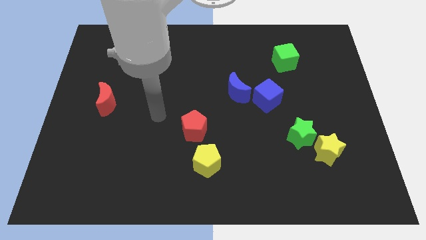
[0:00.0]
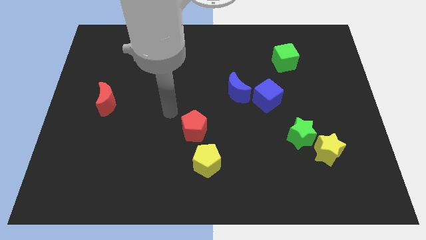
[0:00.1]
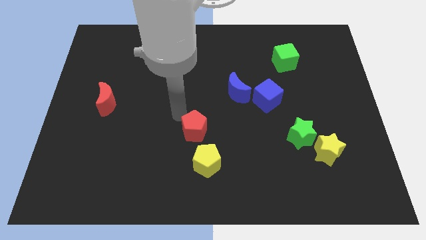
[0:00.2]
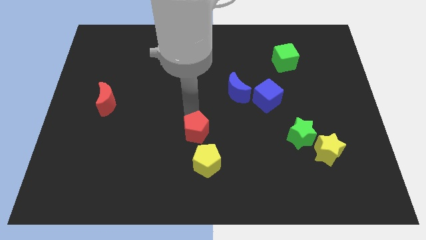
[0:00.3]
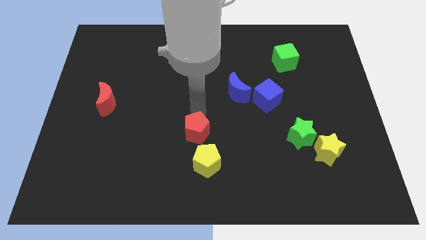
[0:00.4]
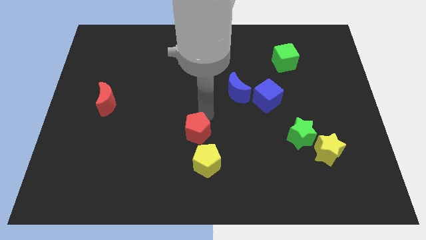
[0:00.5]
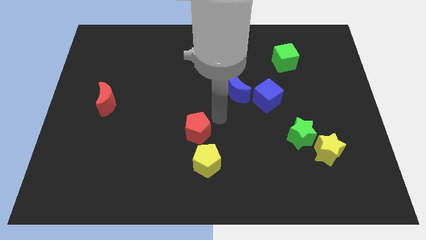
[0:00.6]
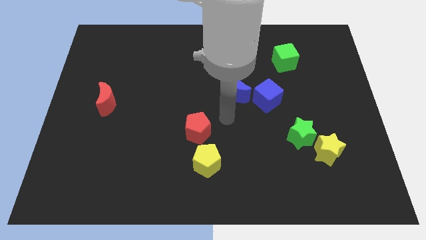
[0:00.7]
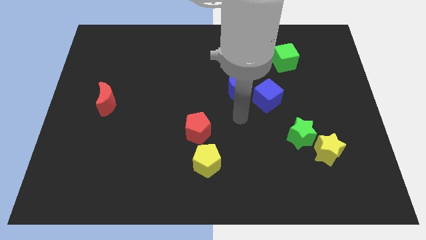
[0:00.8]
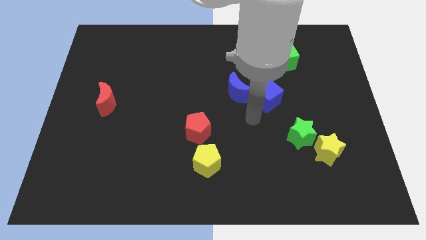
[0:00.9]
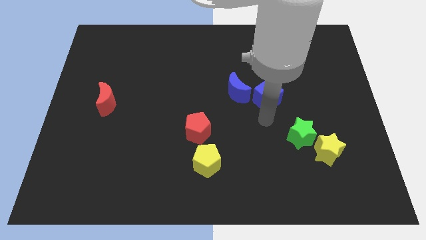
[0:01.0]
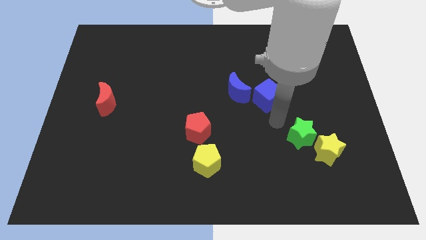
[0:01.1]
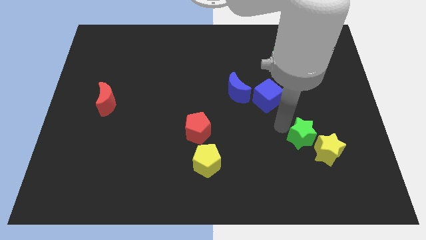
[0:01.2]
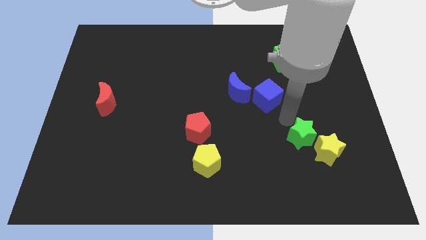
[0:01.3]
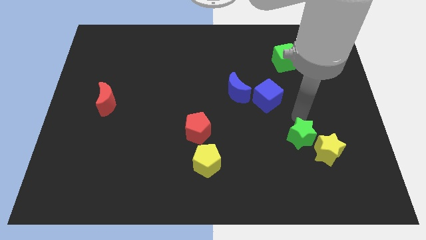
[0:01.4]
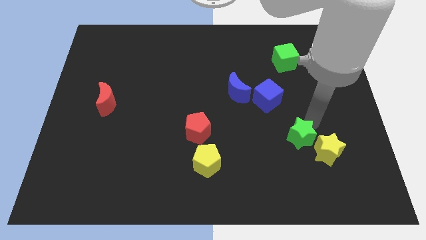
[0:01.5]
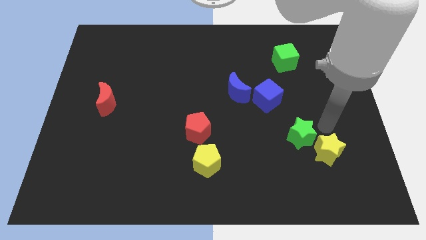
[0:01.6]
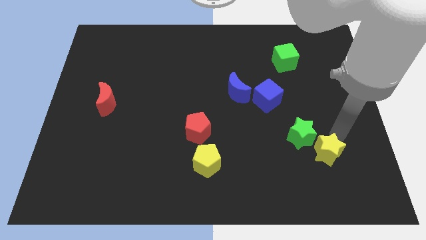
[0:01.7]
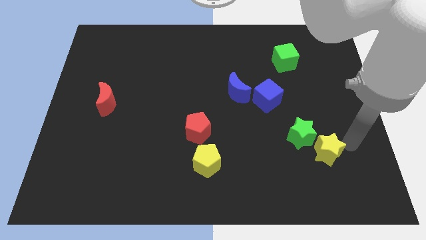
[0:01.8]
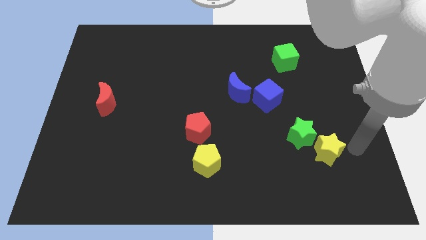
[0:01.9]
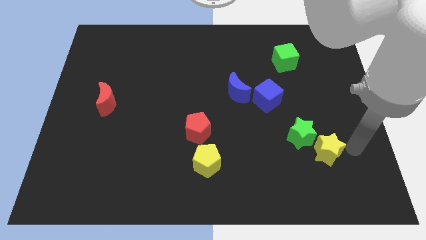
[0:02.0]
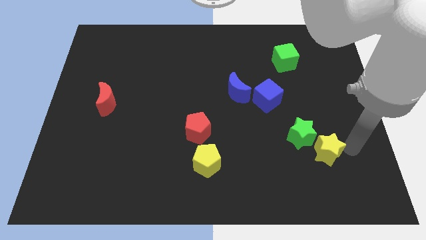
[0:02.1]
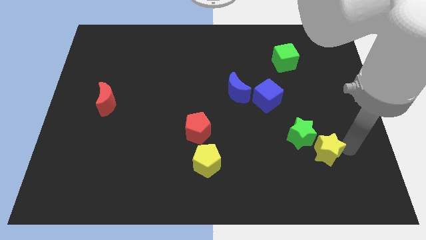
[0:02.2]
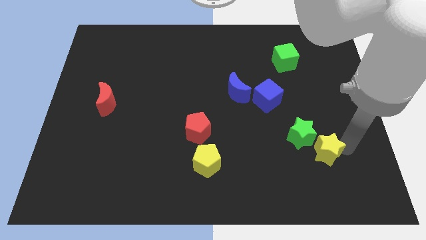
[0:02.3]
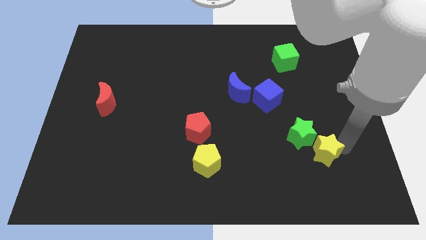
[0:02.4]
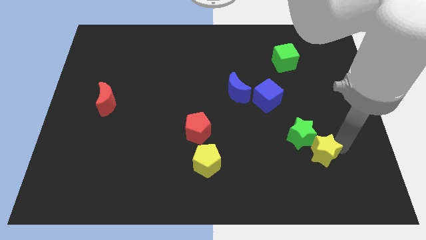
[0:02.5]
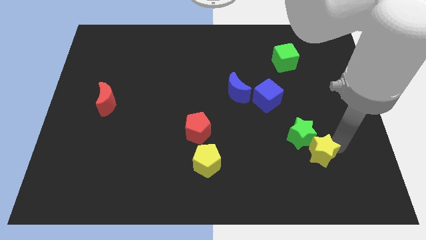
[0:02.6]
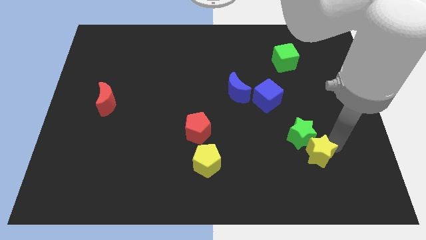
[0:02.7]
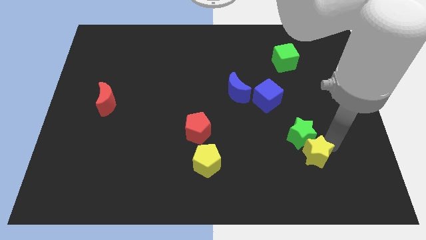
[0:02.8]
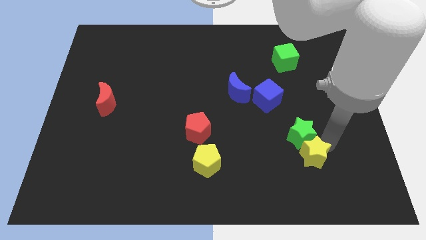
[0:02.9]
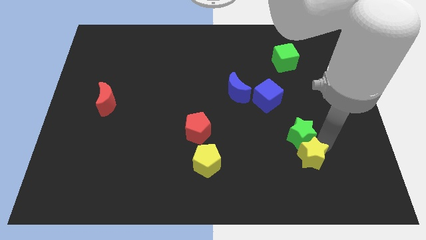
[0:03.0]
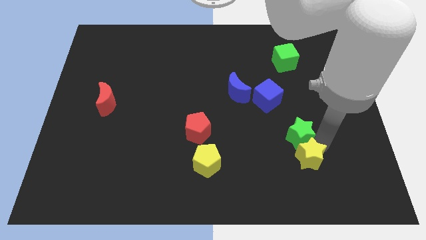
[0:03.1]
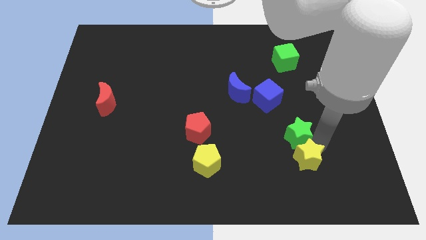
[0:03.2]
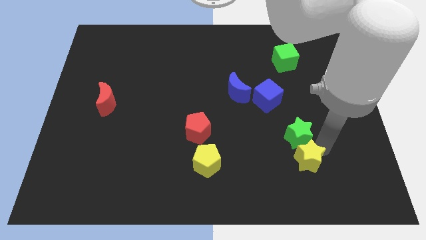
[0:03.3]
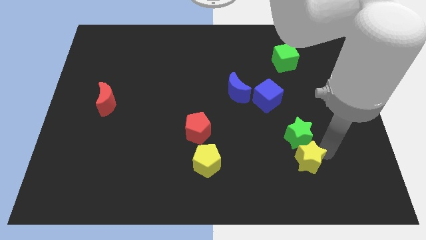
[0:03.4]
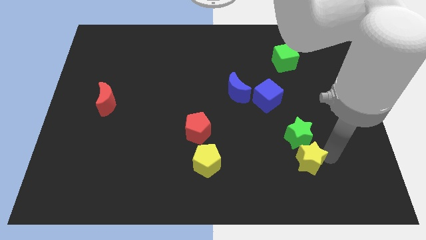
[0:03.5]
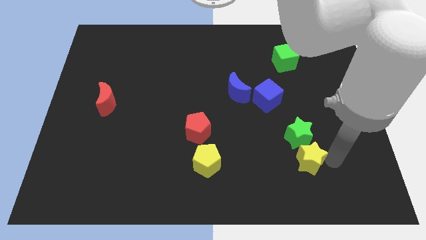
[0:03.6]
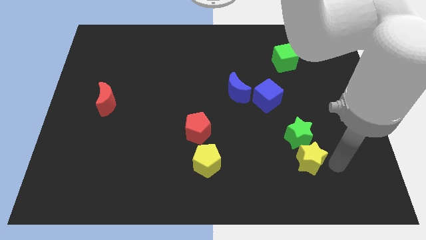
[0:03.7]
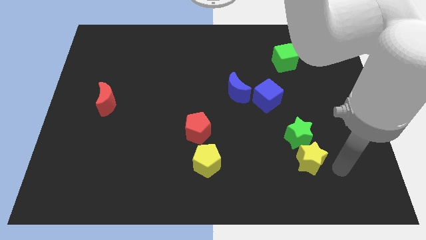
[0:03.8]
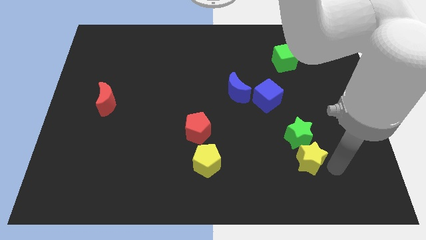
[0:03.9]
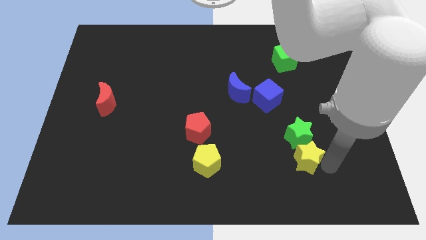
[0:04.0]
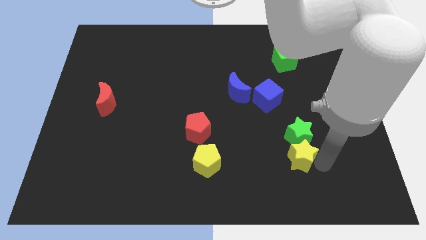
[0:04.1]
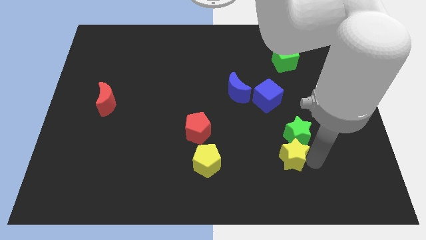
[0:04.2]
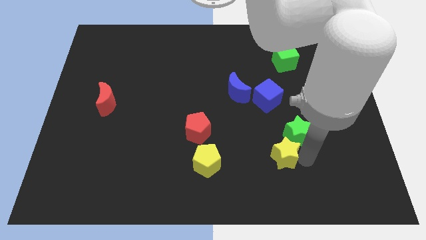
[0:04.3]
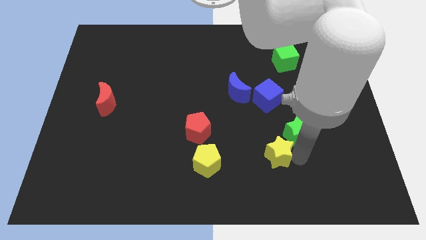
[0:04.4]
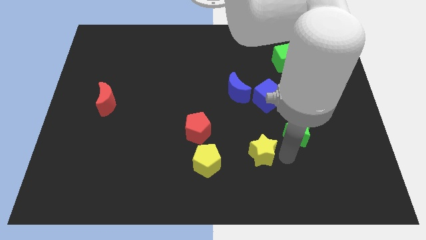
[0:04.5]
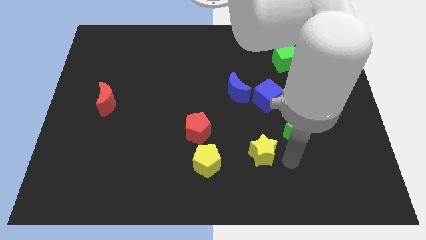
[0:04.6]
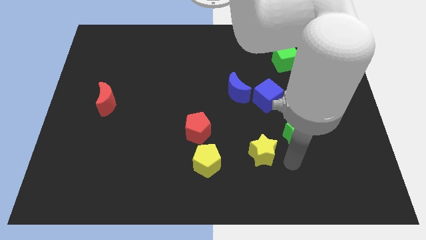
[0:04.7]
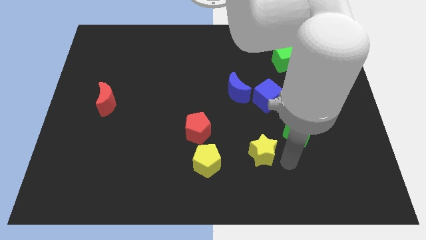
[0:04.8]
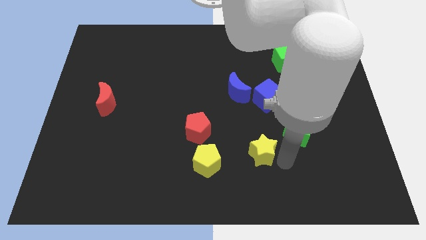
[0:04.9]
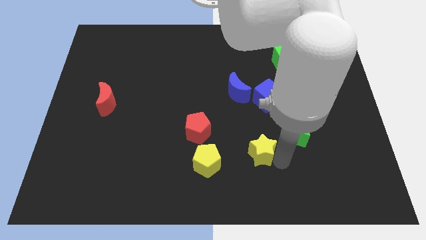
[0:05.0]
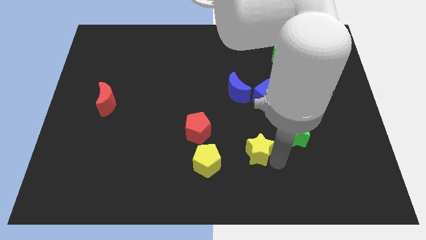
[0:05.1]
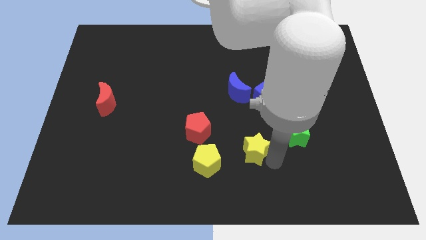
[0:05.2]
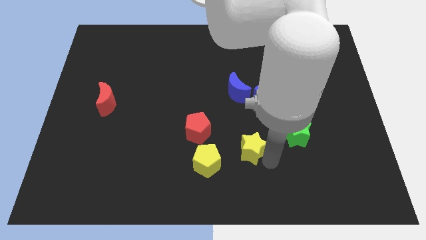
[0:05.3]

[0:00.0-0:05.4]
put the yellow star diagonally up and to the right of the yellow pentagon

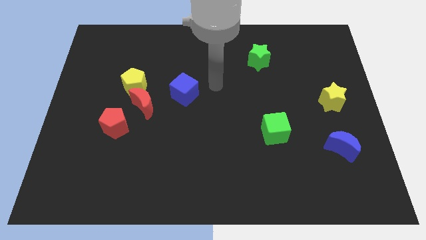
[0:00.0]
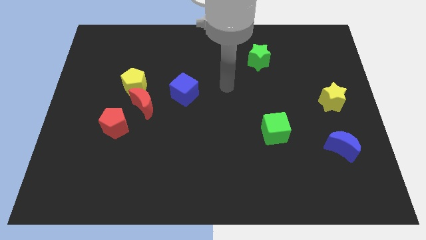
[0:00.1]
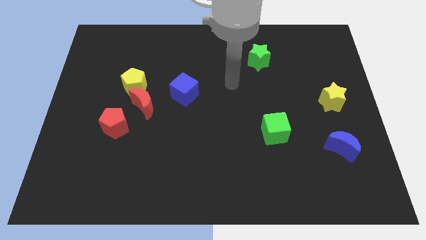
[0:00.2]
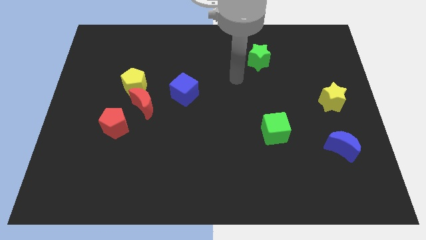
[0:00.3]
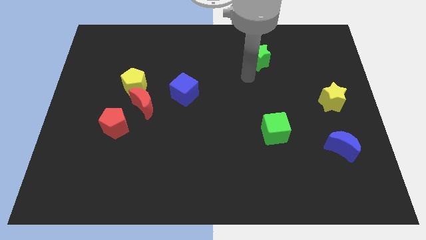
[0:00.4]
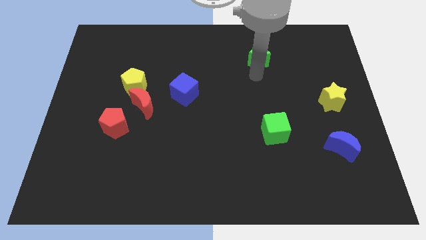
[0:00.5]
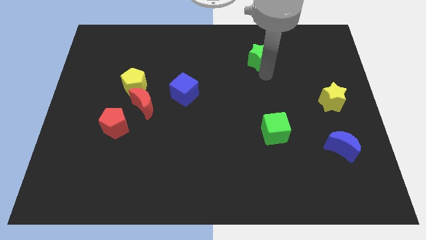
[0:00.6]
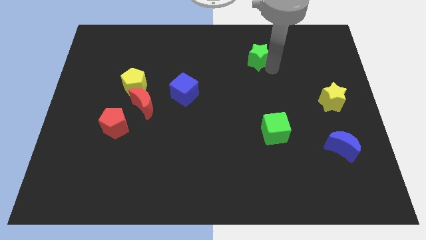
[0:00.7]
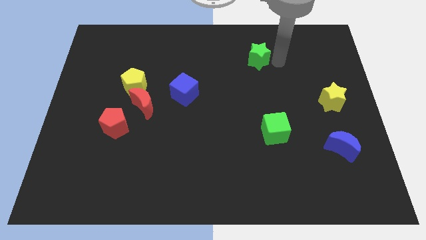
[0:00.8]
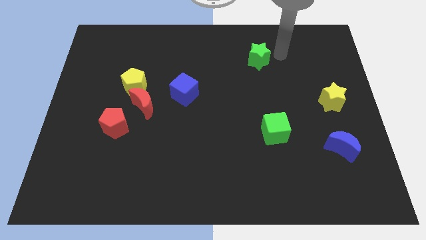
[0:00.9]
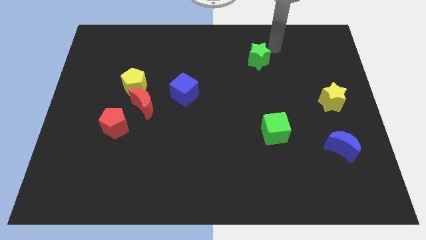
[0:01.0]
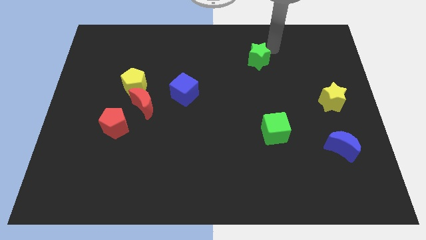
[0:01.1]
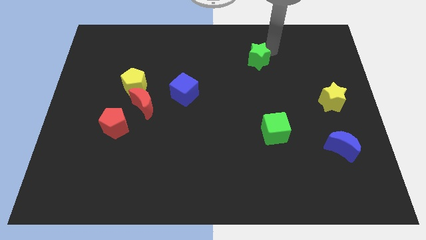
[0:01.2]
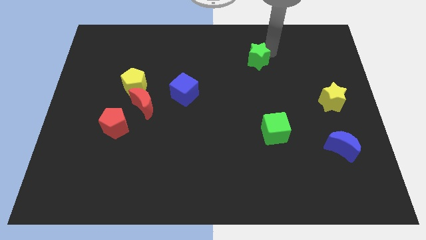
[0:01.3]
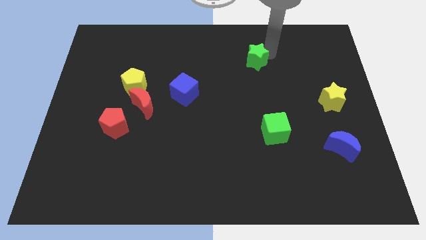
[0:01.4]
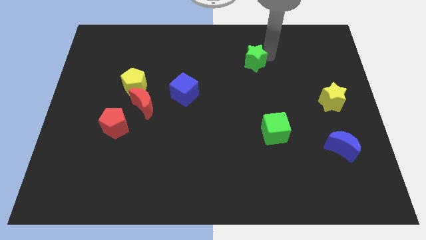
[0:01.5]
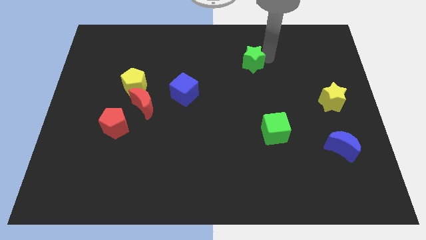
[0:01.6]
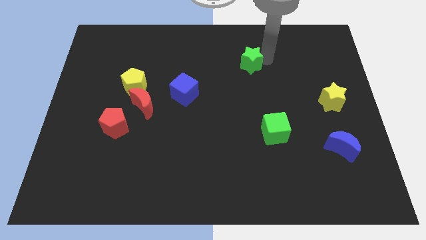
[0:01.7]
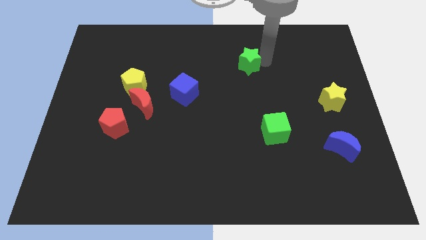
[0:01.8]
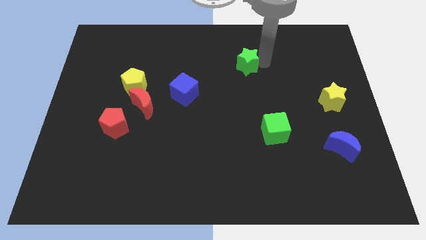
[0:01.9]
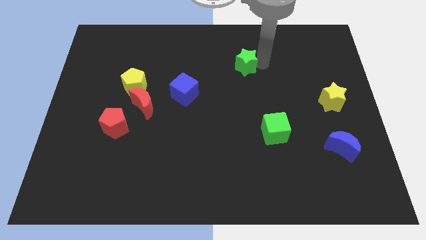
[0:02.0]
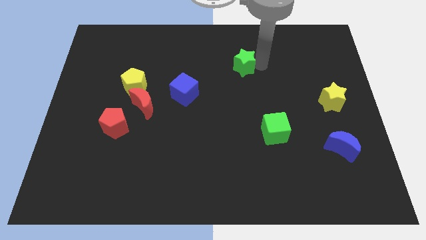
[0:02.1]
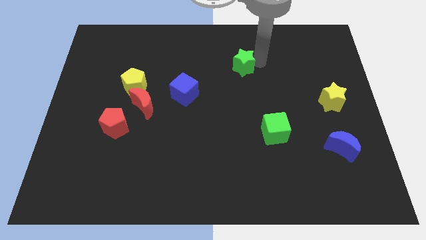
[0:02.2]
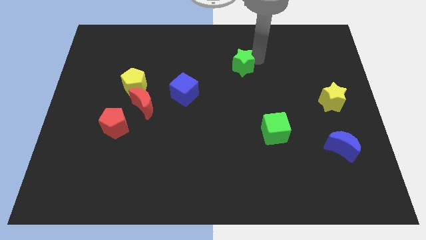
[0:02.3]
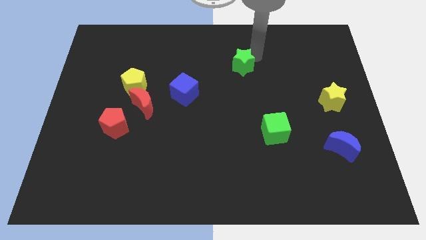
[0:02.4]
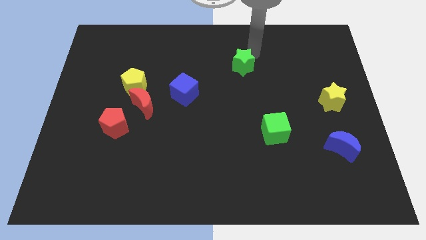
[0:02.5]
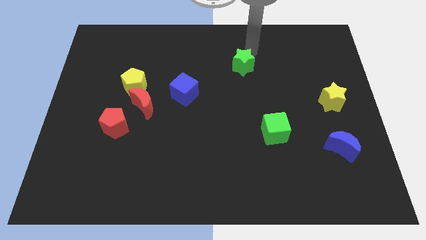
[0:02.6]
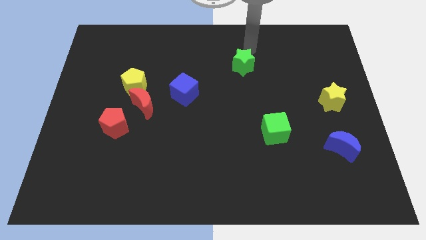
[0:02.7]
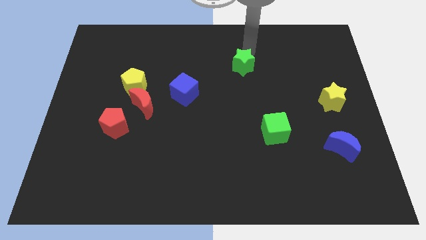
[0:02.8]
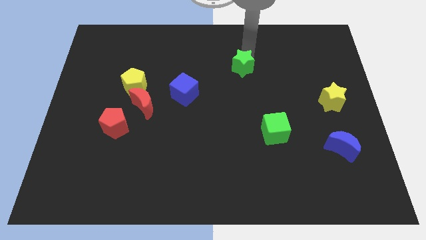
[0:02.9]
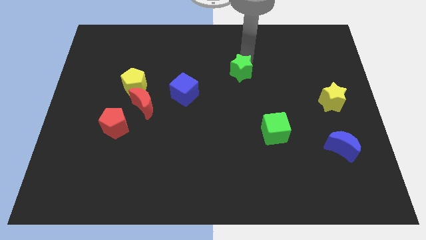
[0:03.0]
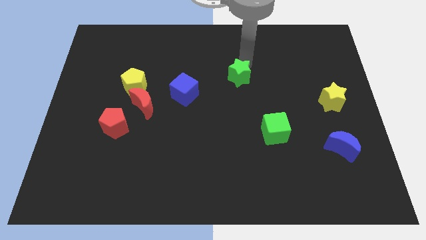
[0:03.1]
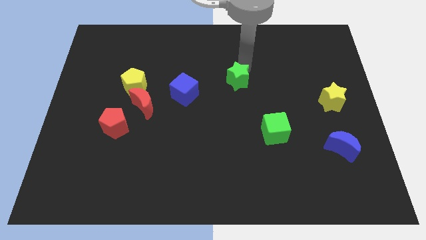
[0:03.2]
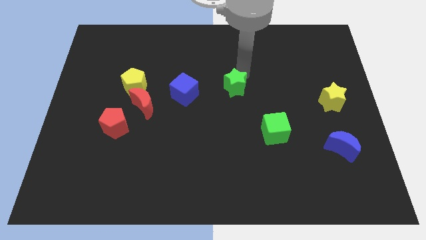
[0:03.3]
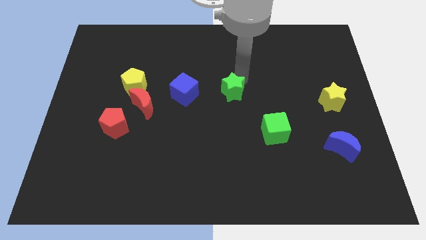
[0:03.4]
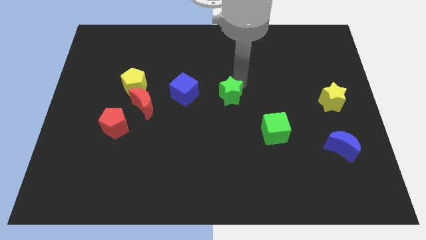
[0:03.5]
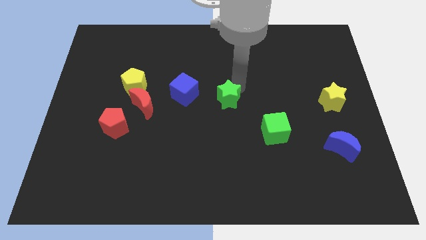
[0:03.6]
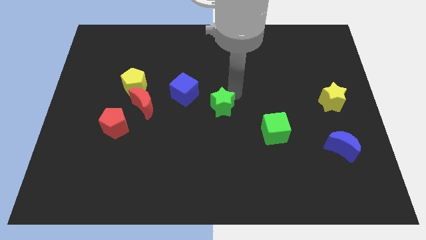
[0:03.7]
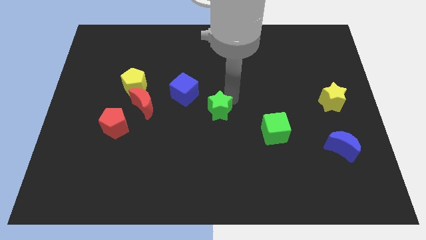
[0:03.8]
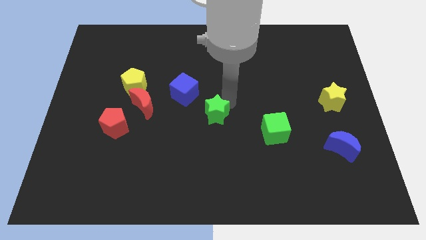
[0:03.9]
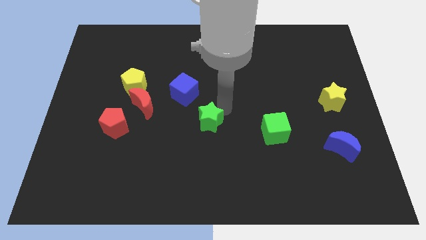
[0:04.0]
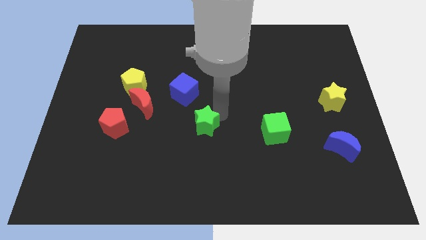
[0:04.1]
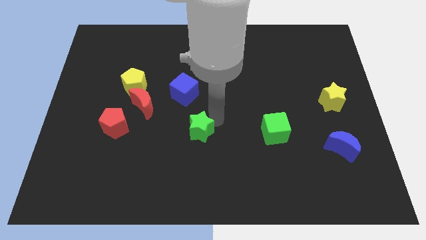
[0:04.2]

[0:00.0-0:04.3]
slide the green star to the bottom of the blue cube
